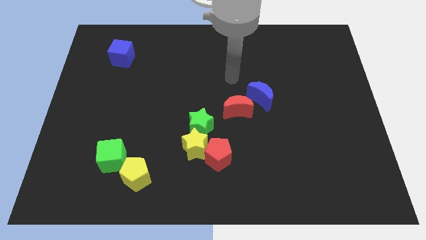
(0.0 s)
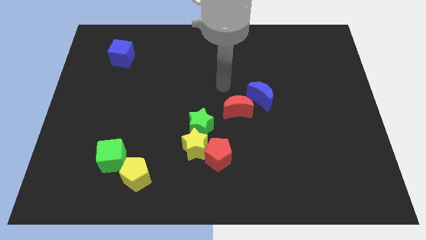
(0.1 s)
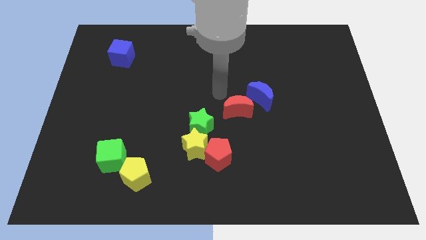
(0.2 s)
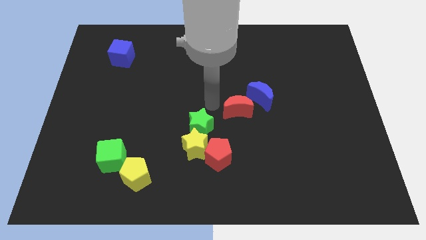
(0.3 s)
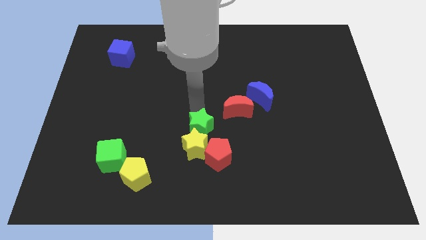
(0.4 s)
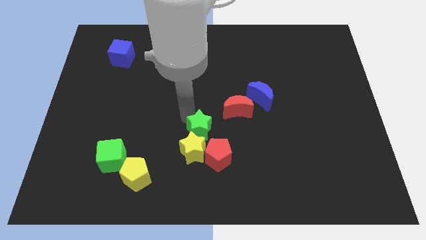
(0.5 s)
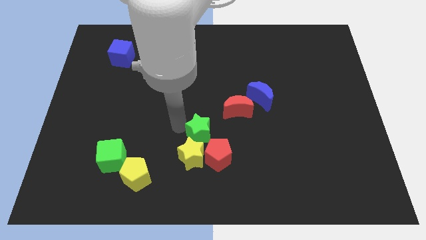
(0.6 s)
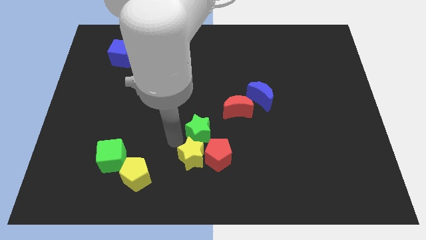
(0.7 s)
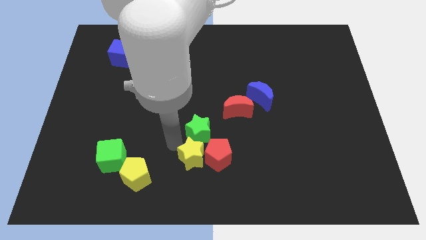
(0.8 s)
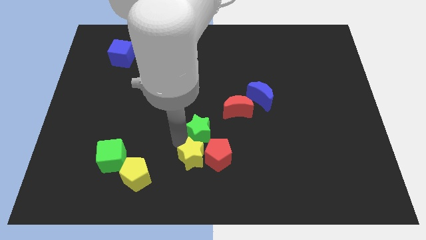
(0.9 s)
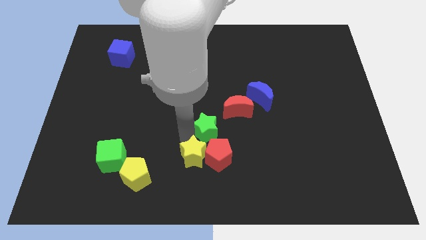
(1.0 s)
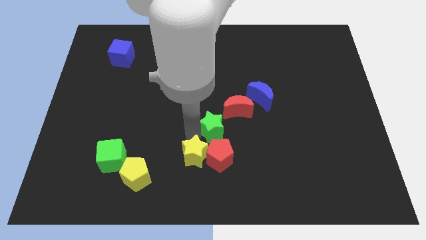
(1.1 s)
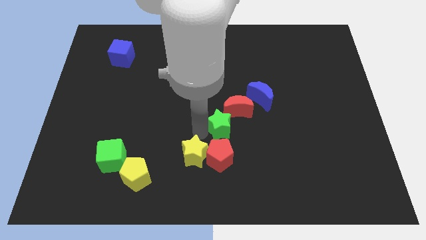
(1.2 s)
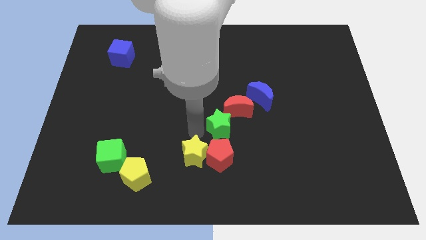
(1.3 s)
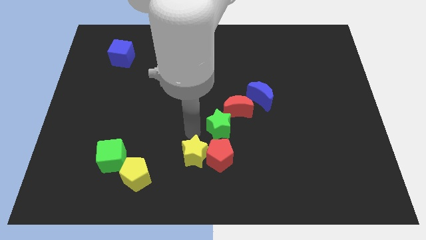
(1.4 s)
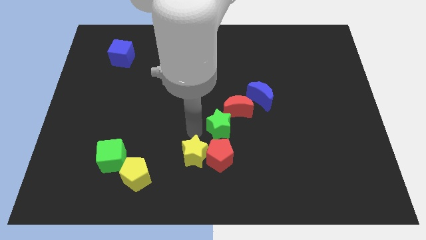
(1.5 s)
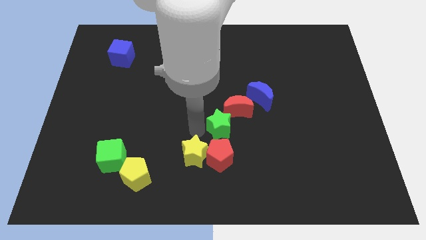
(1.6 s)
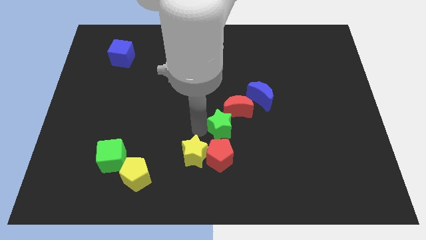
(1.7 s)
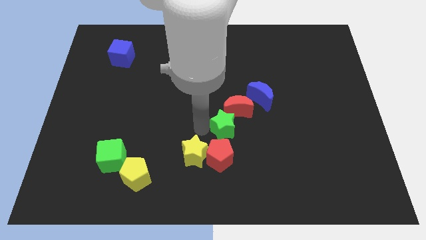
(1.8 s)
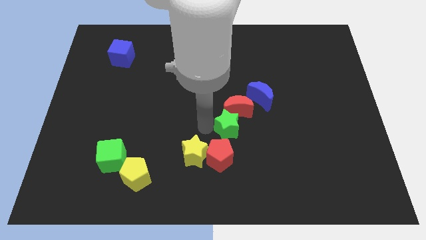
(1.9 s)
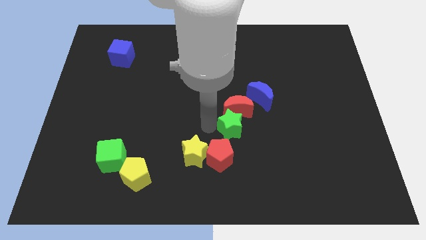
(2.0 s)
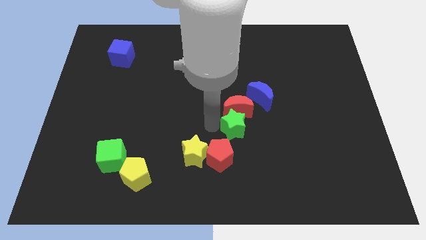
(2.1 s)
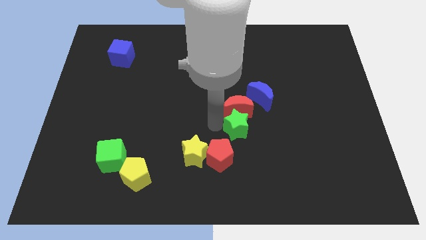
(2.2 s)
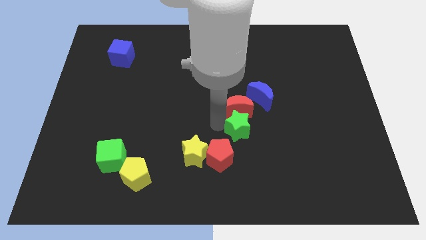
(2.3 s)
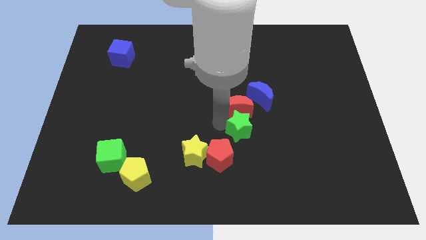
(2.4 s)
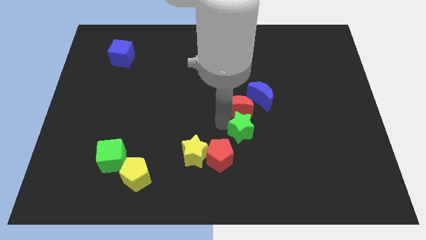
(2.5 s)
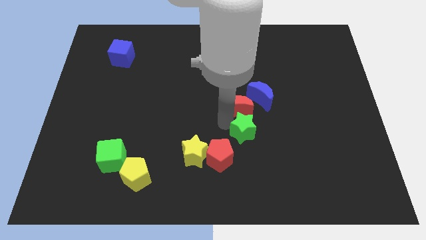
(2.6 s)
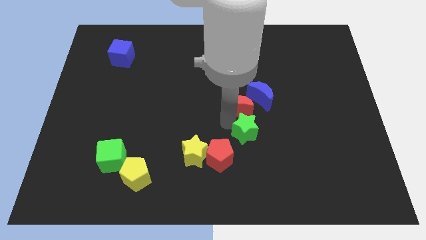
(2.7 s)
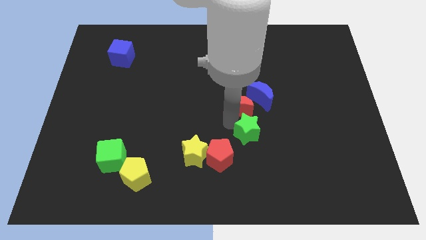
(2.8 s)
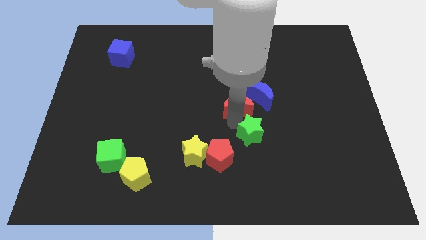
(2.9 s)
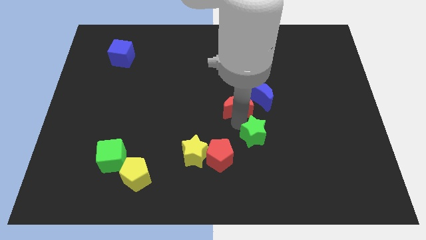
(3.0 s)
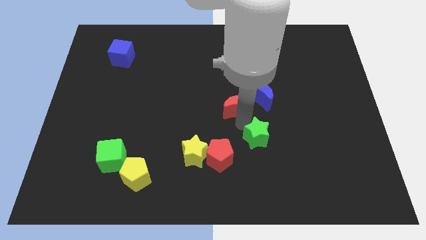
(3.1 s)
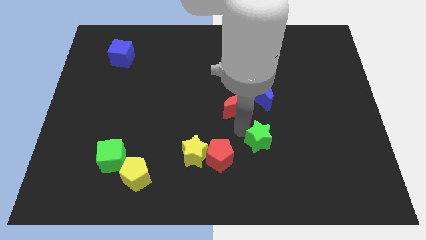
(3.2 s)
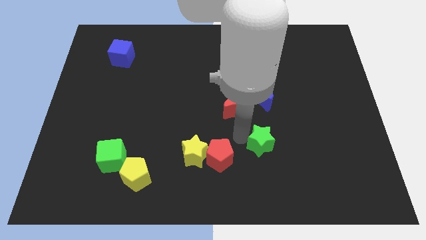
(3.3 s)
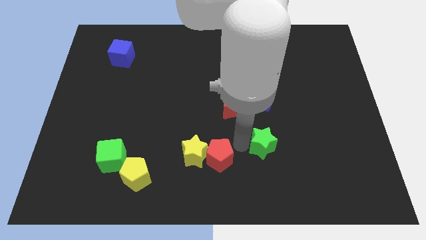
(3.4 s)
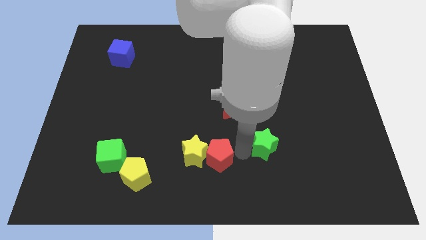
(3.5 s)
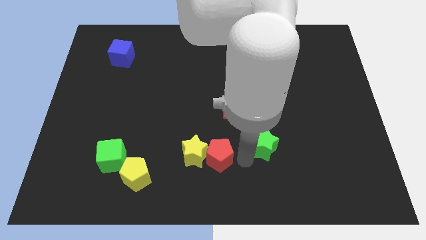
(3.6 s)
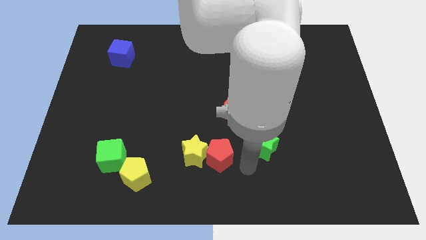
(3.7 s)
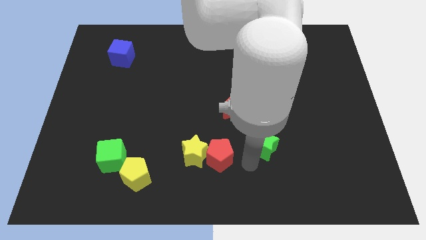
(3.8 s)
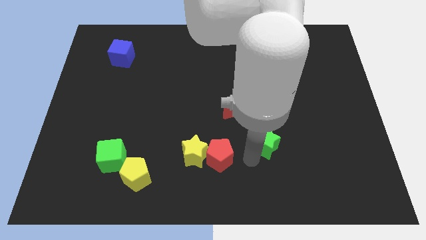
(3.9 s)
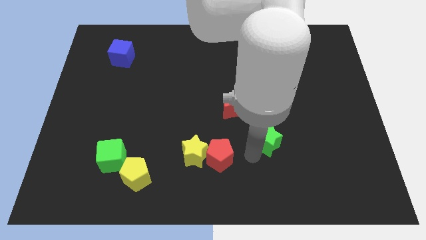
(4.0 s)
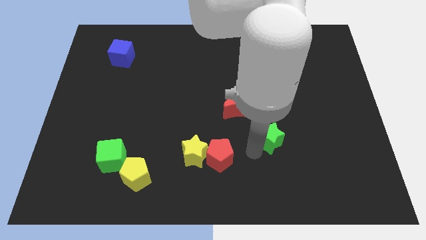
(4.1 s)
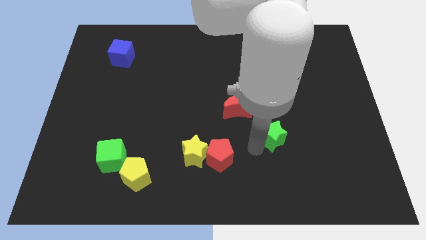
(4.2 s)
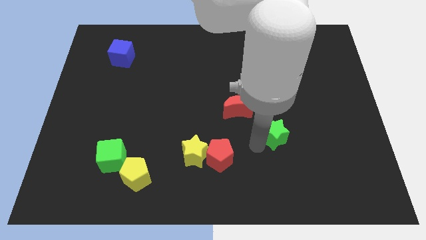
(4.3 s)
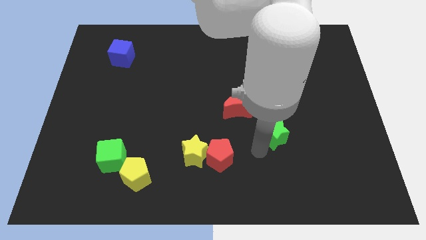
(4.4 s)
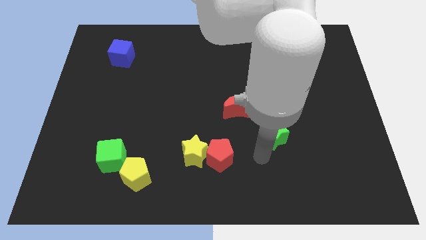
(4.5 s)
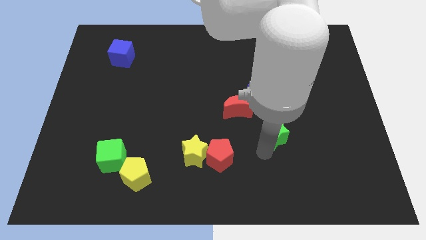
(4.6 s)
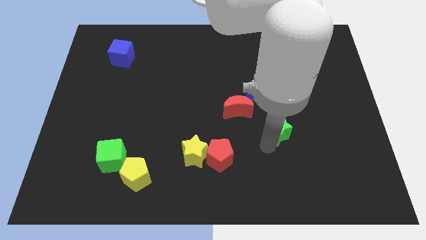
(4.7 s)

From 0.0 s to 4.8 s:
push the green star diagonally down and to the right of the blue moon

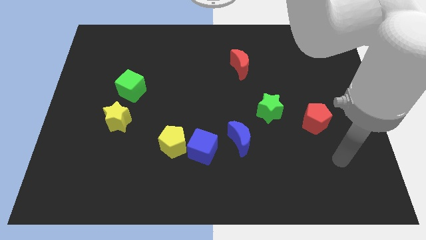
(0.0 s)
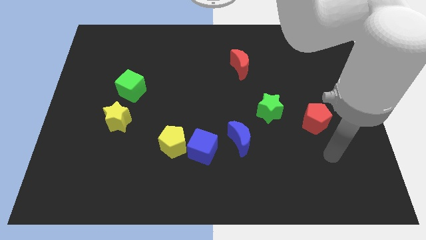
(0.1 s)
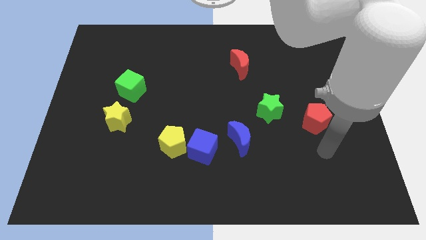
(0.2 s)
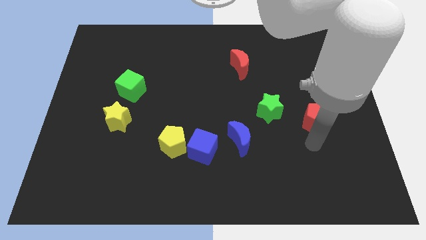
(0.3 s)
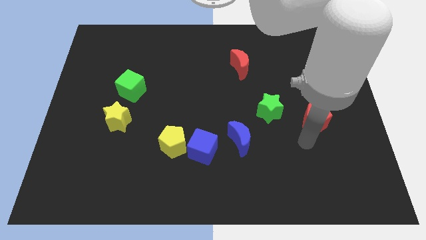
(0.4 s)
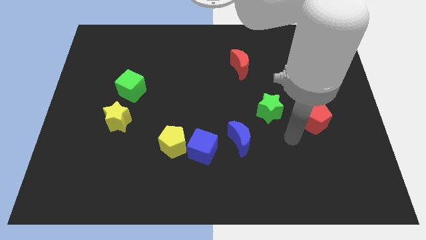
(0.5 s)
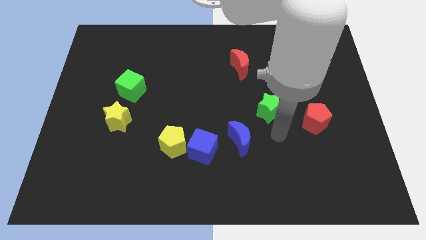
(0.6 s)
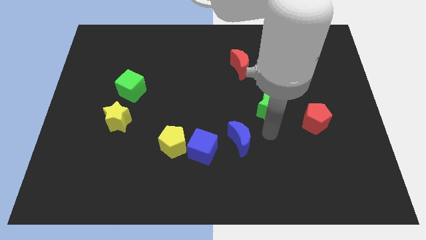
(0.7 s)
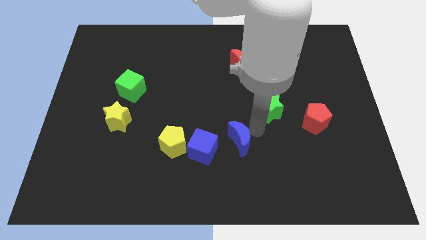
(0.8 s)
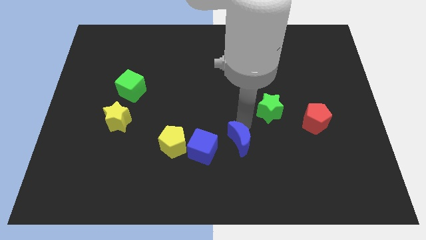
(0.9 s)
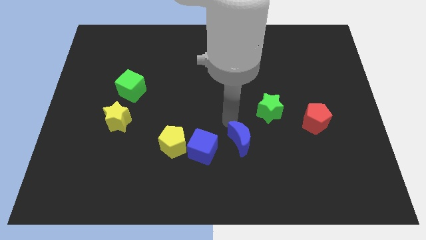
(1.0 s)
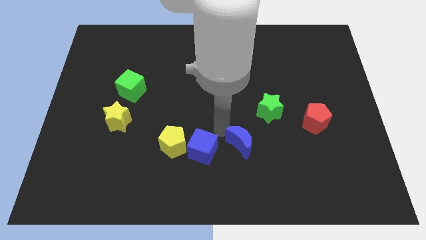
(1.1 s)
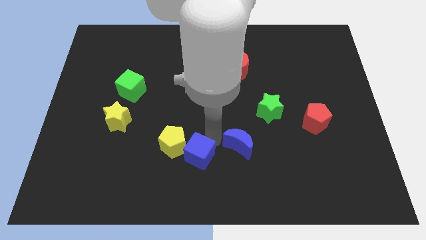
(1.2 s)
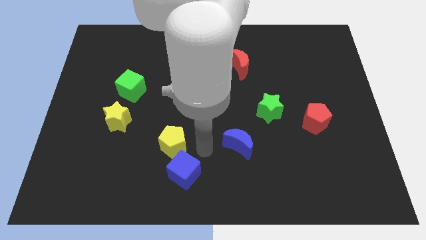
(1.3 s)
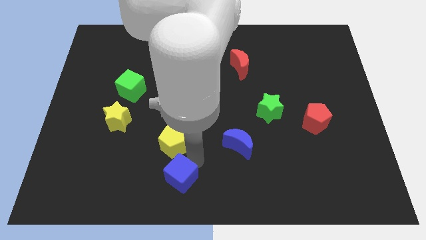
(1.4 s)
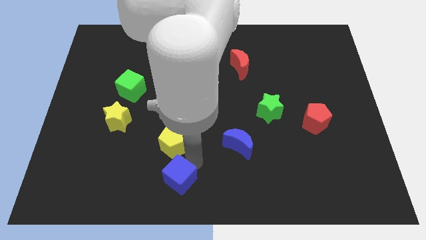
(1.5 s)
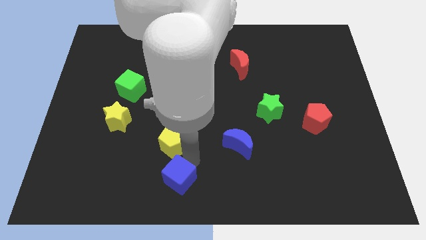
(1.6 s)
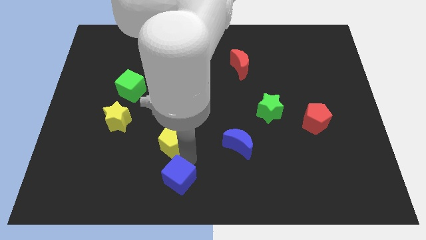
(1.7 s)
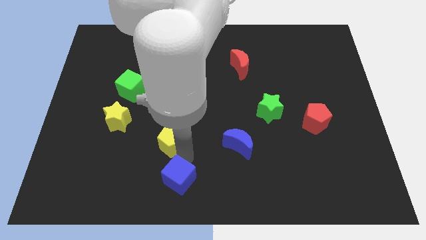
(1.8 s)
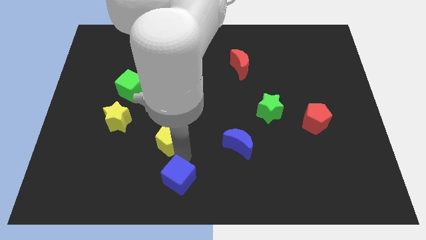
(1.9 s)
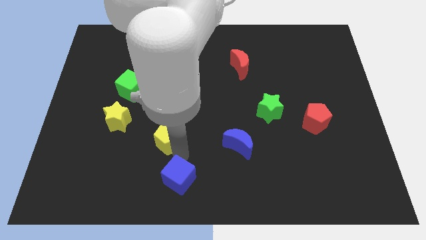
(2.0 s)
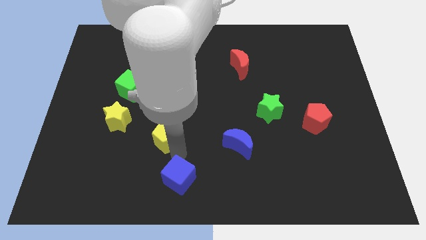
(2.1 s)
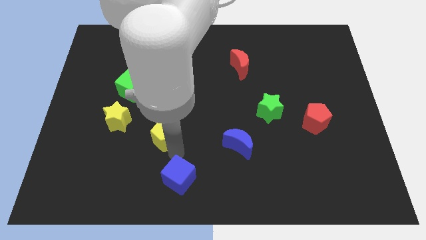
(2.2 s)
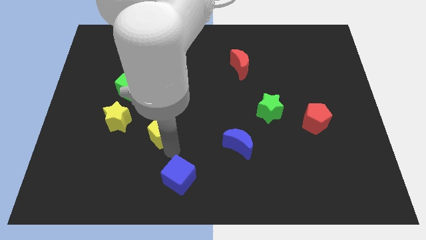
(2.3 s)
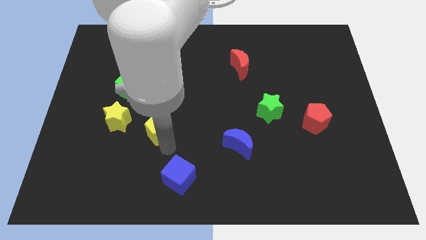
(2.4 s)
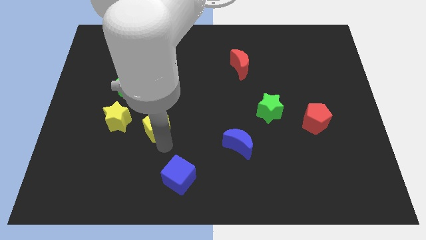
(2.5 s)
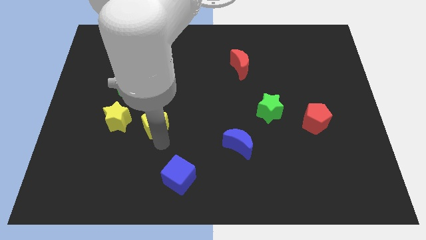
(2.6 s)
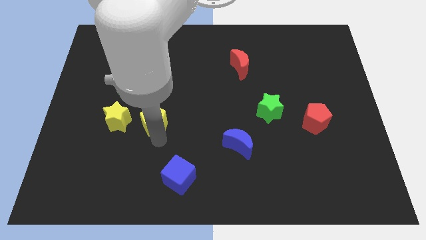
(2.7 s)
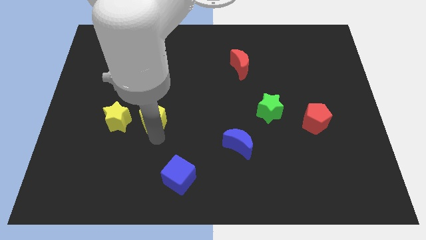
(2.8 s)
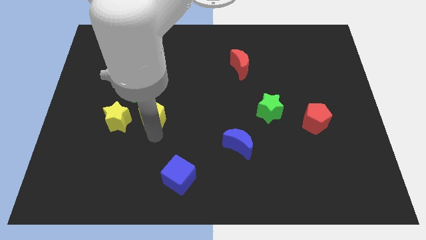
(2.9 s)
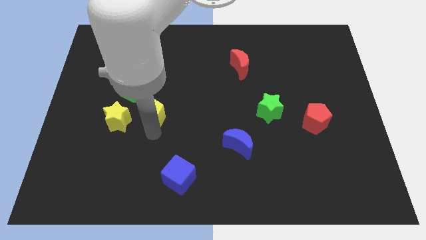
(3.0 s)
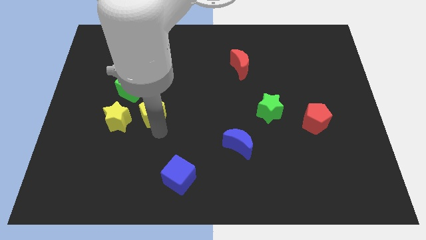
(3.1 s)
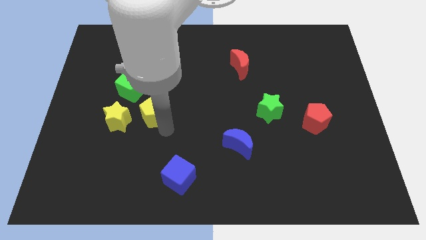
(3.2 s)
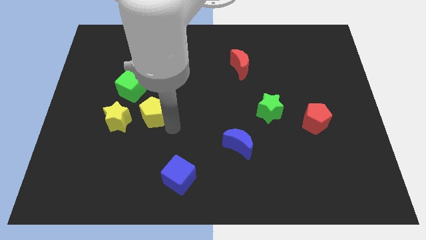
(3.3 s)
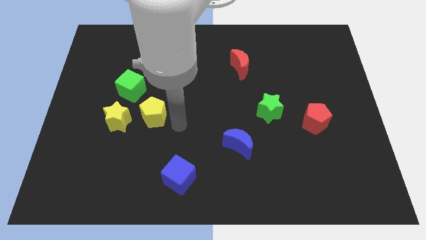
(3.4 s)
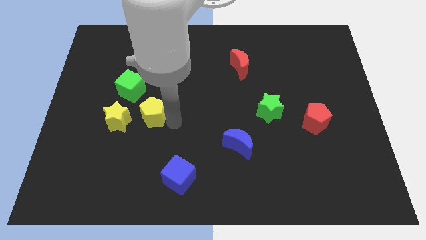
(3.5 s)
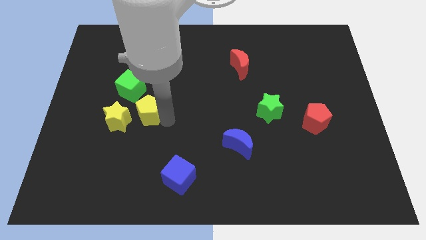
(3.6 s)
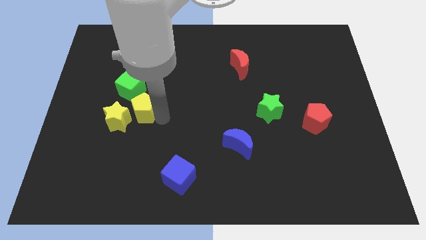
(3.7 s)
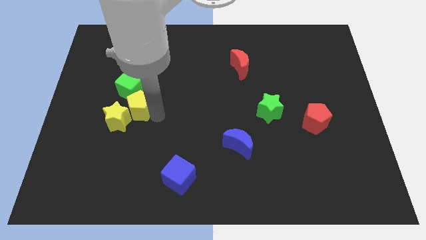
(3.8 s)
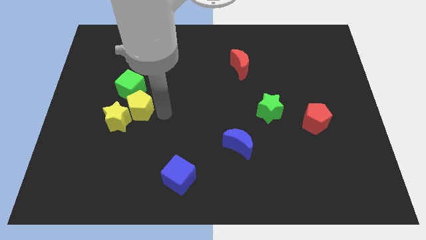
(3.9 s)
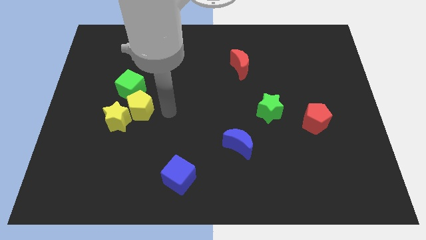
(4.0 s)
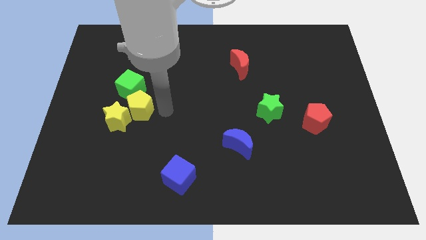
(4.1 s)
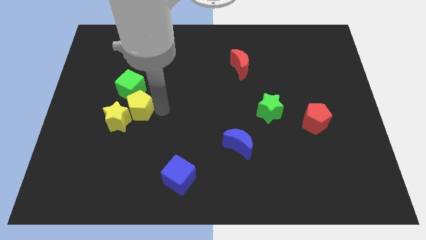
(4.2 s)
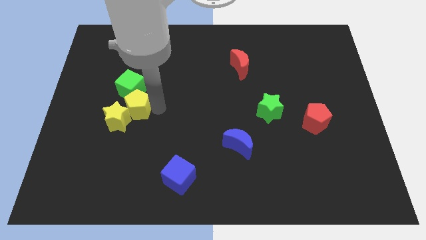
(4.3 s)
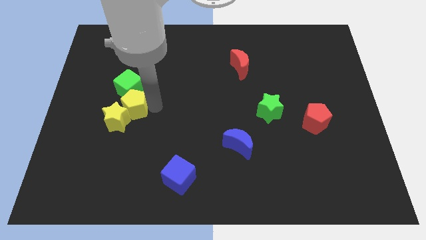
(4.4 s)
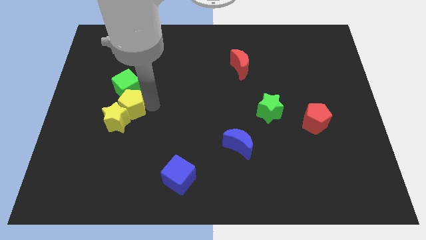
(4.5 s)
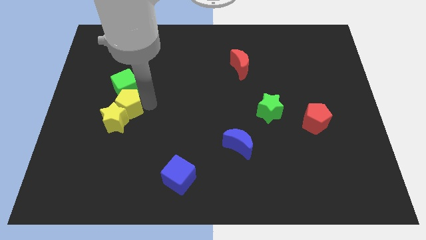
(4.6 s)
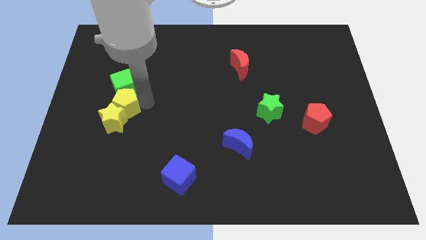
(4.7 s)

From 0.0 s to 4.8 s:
put the yellow pentagon to the bottom left side of the green cube
